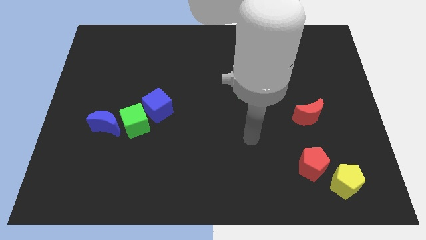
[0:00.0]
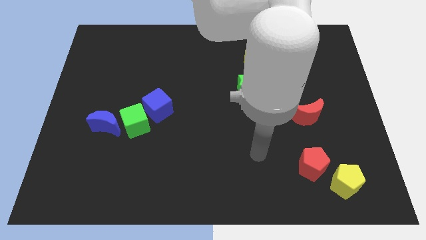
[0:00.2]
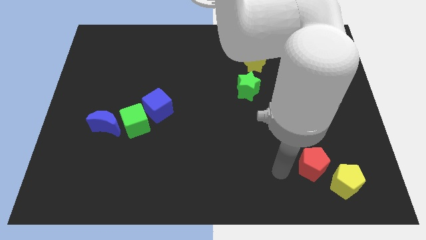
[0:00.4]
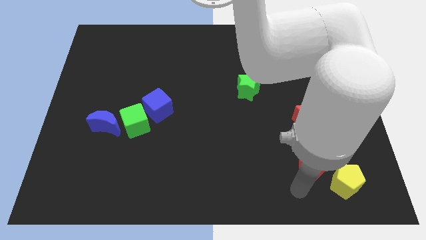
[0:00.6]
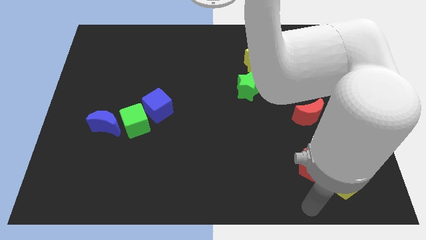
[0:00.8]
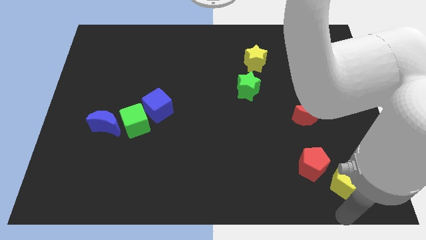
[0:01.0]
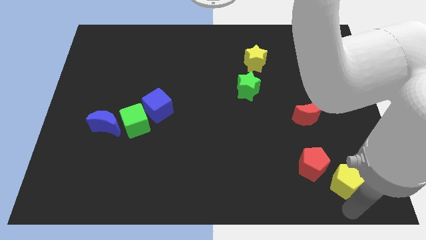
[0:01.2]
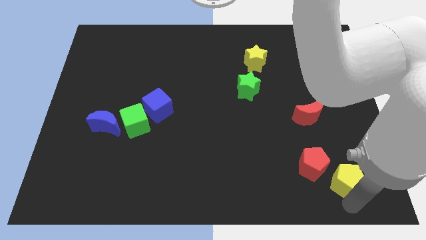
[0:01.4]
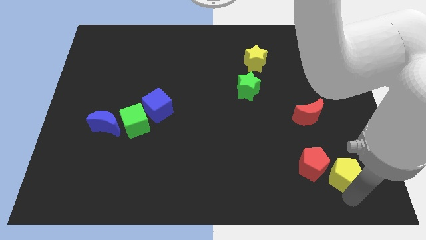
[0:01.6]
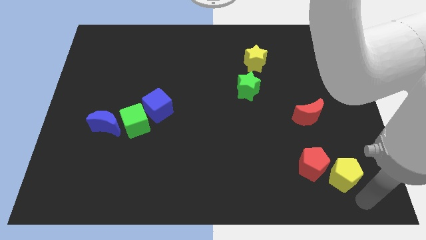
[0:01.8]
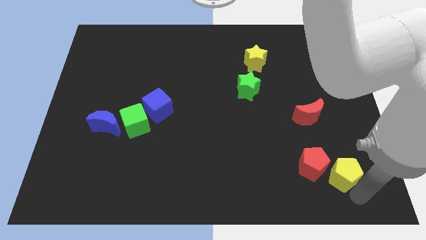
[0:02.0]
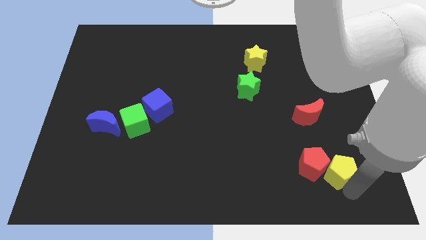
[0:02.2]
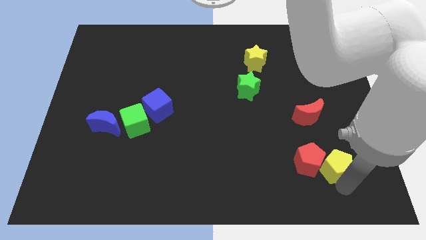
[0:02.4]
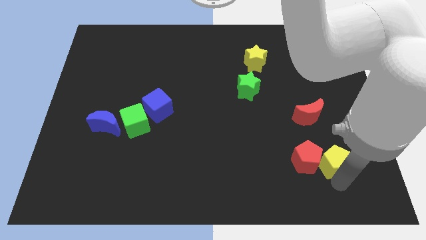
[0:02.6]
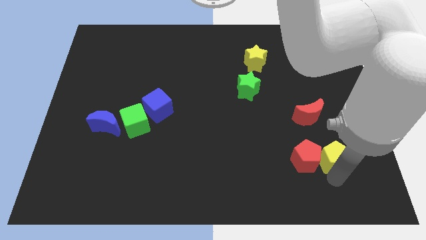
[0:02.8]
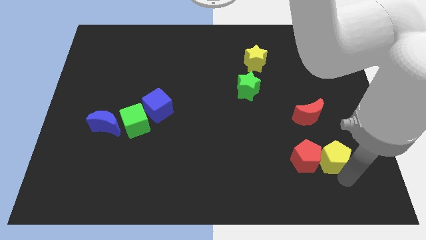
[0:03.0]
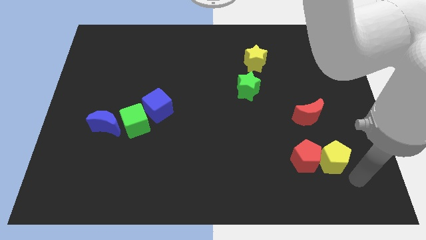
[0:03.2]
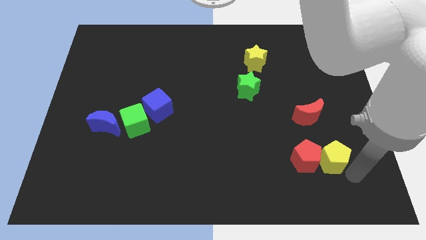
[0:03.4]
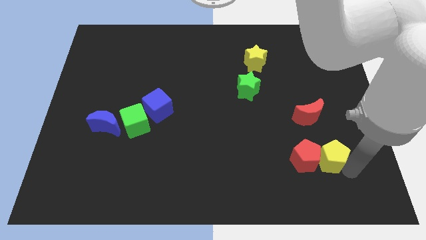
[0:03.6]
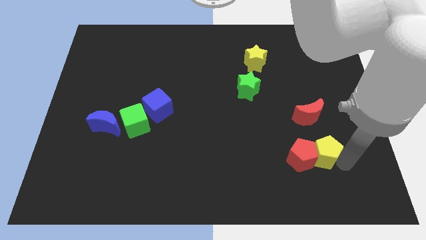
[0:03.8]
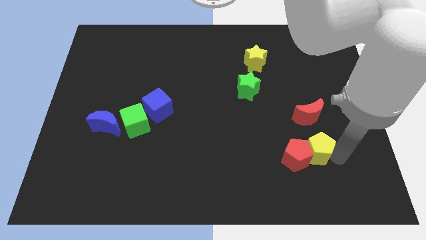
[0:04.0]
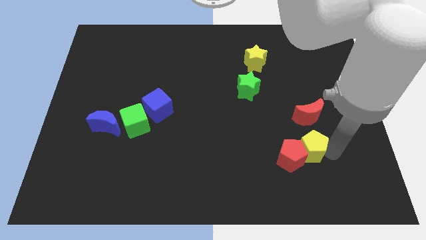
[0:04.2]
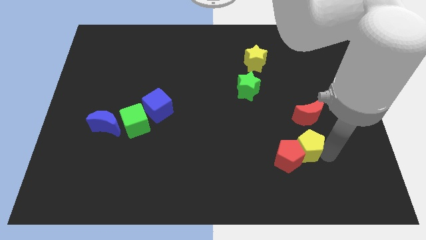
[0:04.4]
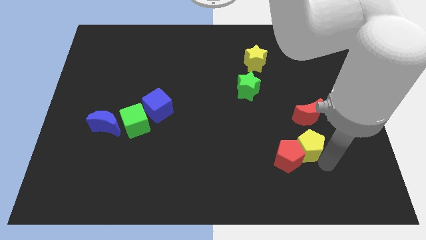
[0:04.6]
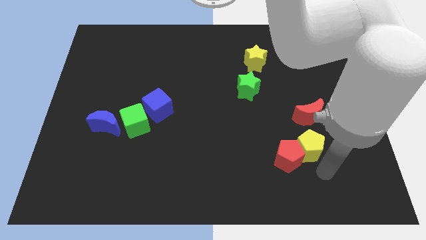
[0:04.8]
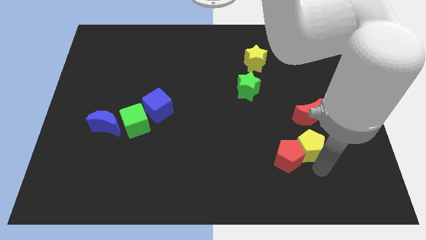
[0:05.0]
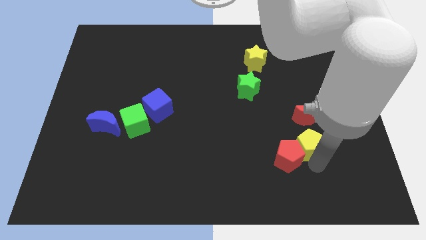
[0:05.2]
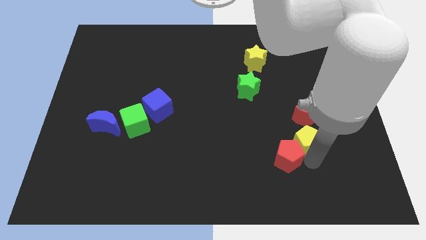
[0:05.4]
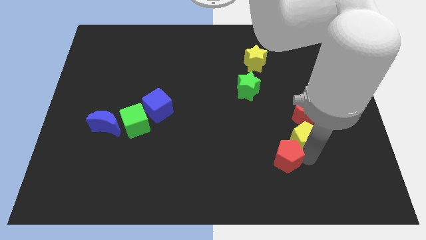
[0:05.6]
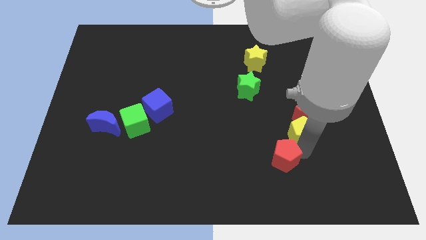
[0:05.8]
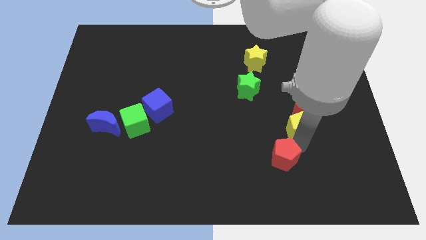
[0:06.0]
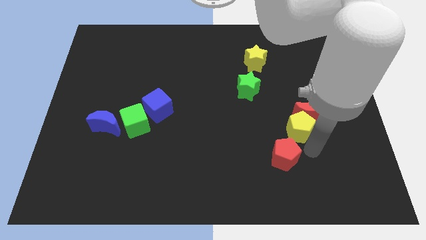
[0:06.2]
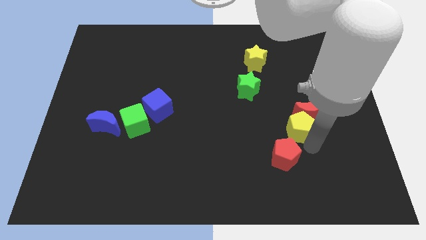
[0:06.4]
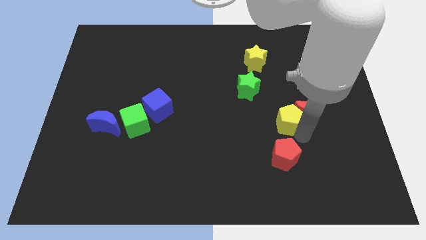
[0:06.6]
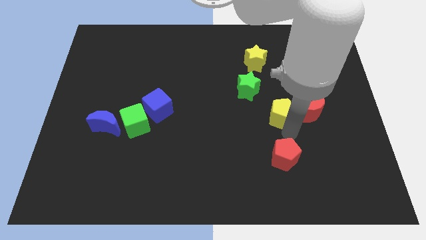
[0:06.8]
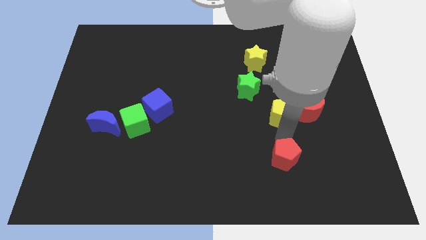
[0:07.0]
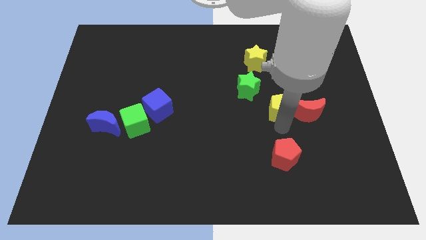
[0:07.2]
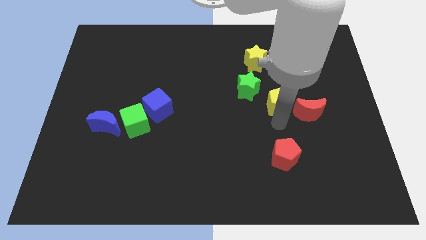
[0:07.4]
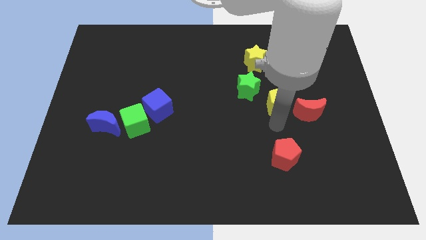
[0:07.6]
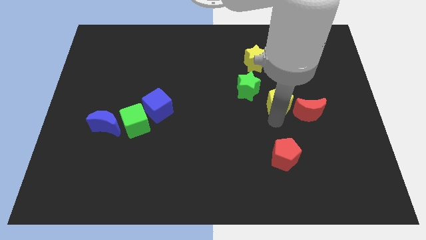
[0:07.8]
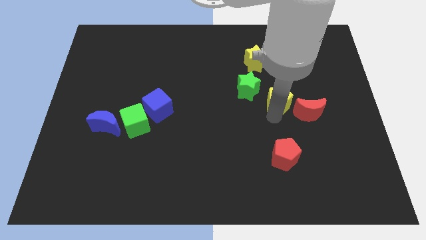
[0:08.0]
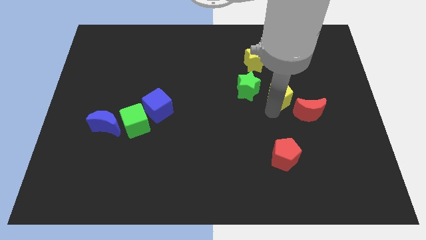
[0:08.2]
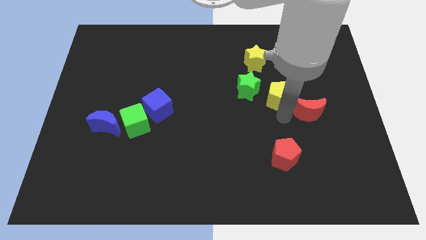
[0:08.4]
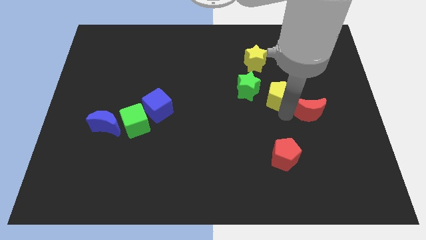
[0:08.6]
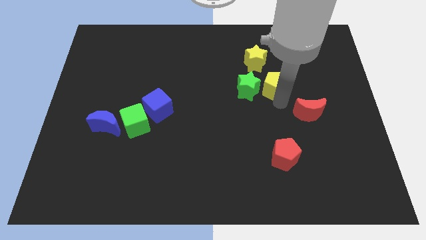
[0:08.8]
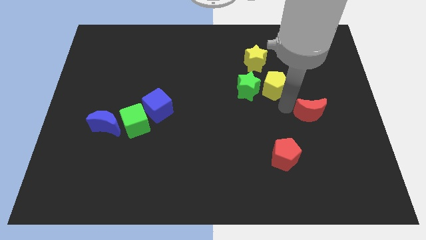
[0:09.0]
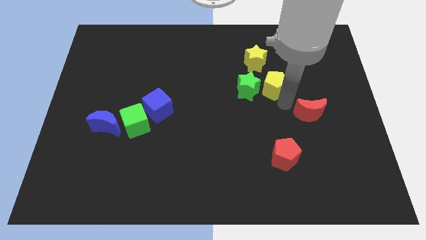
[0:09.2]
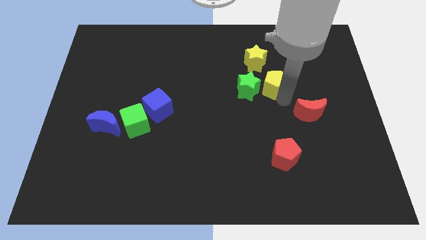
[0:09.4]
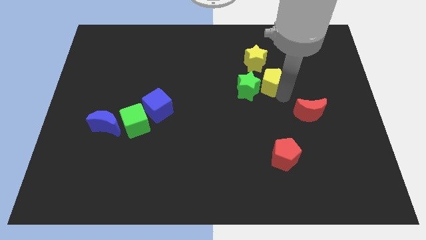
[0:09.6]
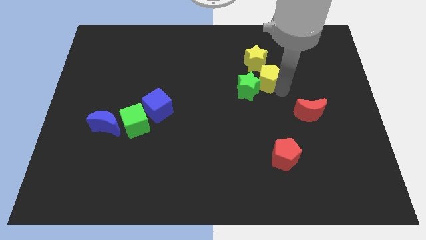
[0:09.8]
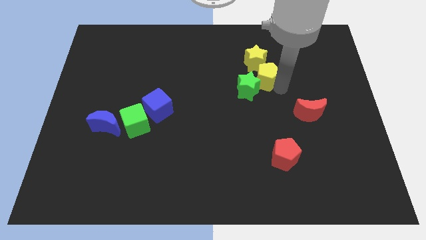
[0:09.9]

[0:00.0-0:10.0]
slide the yellow pentagon next to the yellow star

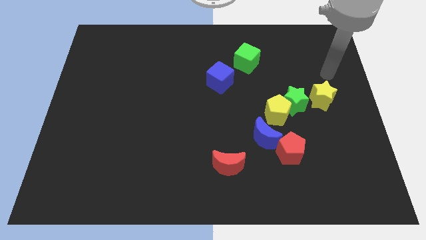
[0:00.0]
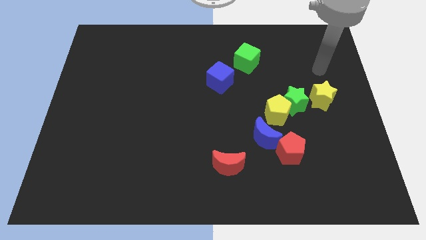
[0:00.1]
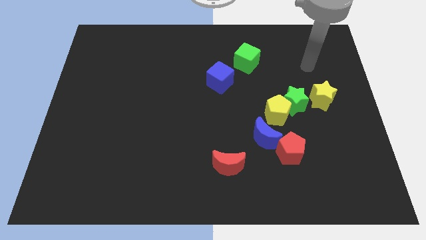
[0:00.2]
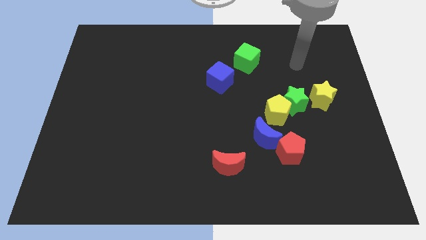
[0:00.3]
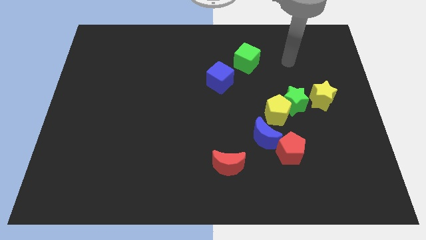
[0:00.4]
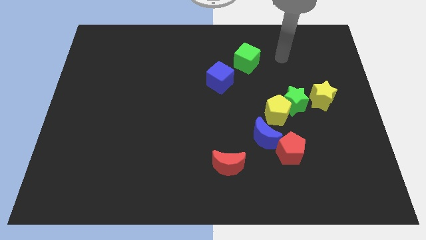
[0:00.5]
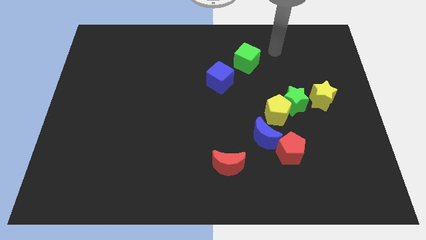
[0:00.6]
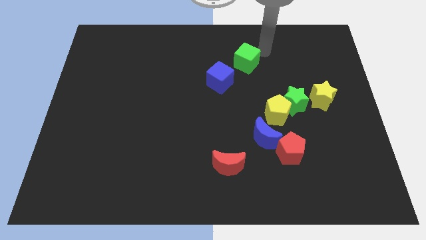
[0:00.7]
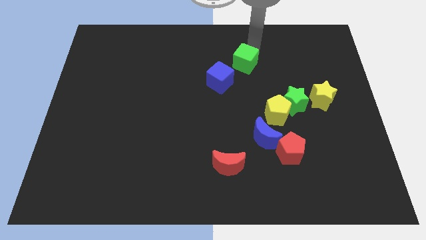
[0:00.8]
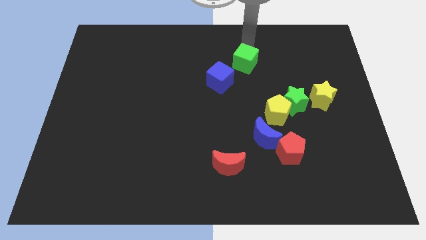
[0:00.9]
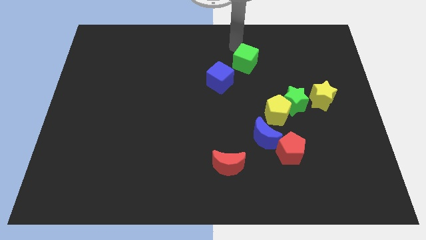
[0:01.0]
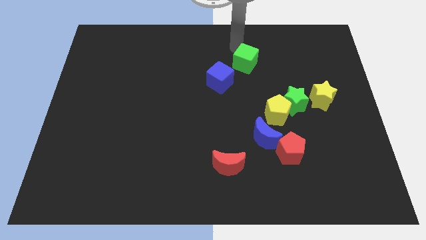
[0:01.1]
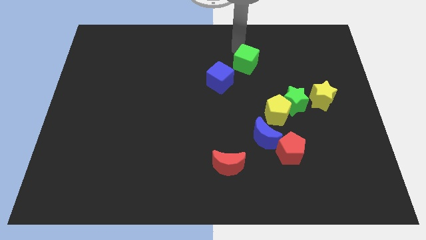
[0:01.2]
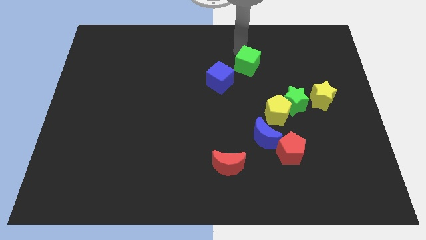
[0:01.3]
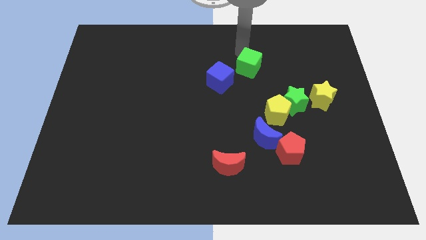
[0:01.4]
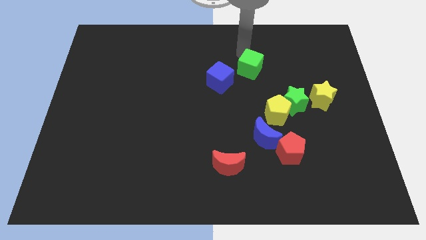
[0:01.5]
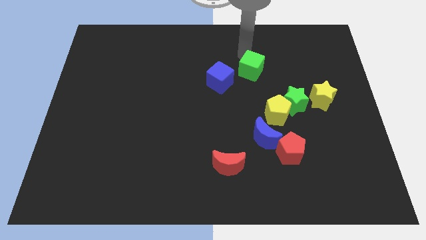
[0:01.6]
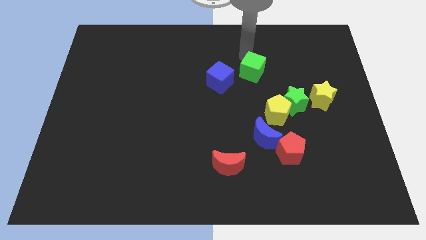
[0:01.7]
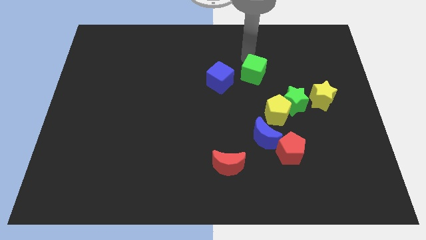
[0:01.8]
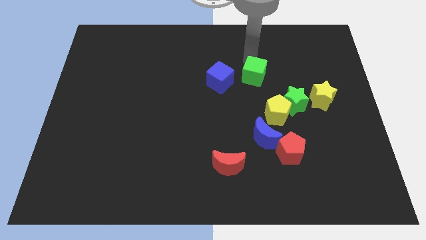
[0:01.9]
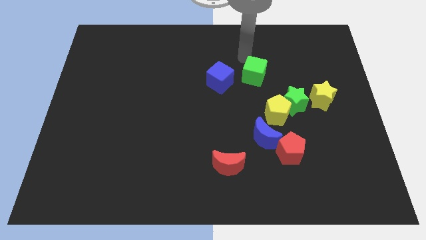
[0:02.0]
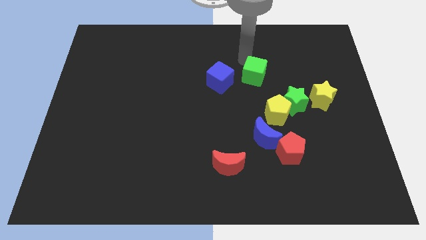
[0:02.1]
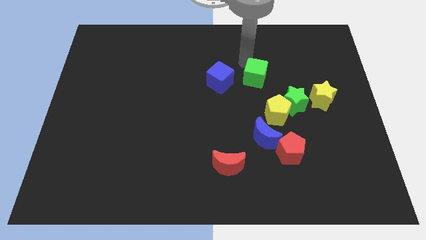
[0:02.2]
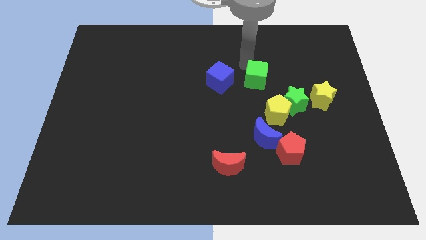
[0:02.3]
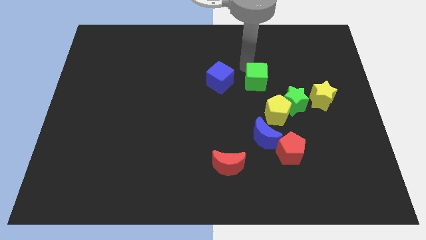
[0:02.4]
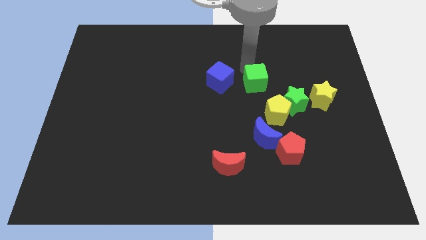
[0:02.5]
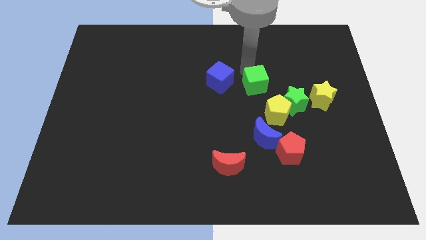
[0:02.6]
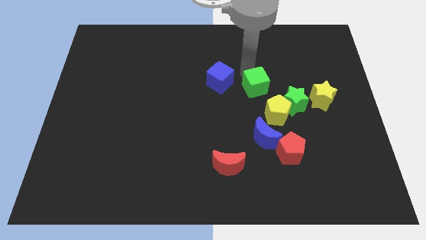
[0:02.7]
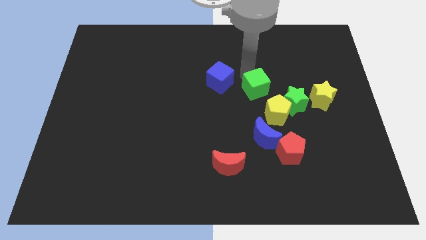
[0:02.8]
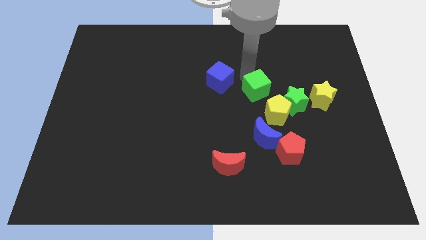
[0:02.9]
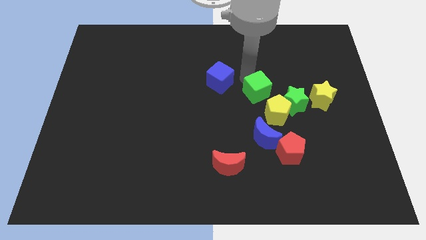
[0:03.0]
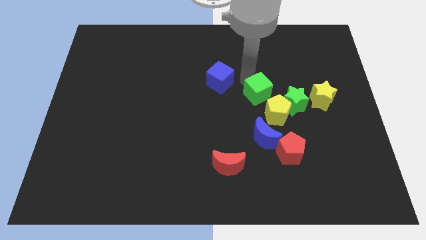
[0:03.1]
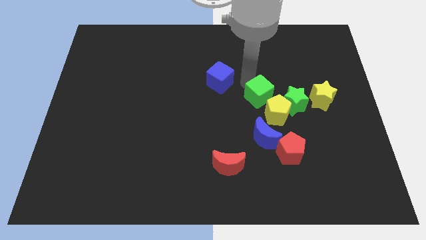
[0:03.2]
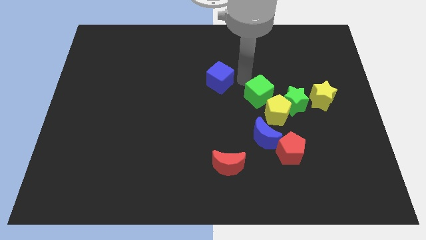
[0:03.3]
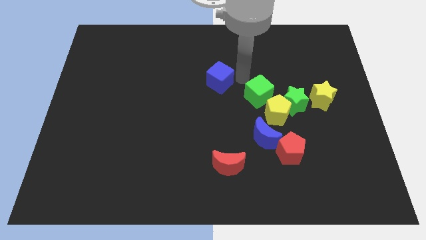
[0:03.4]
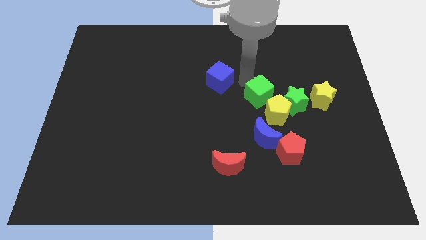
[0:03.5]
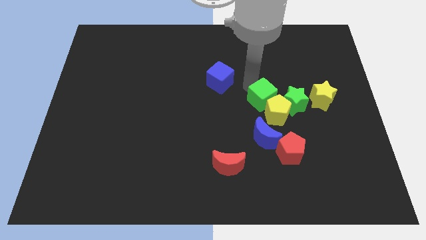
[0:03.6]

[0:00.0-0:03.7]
move the green cube to the yellow pentagon
